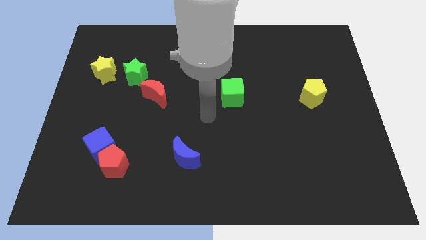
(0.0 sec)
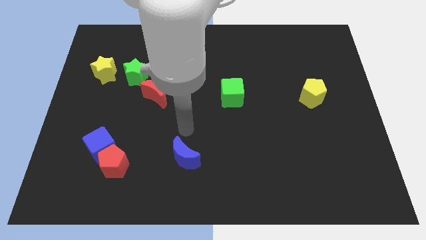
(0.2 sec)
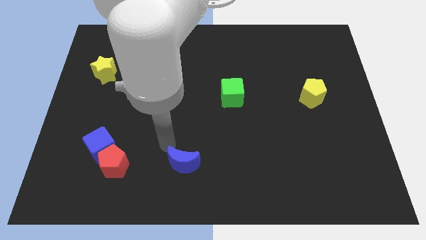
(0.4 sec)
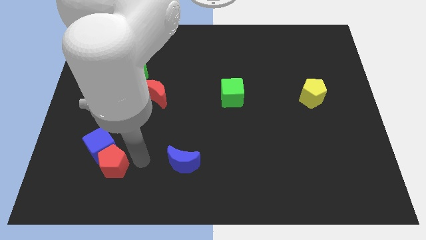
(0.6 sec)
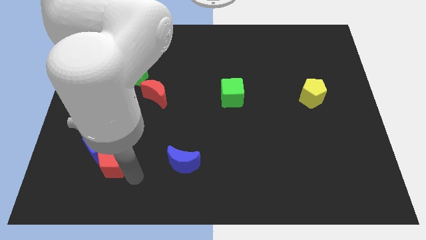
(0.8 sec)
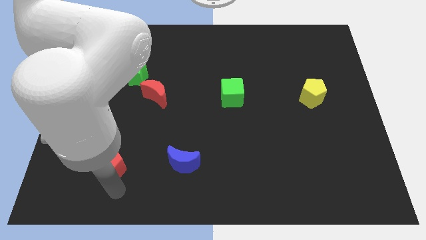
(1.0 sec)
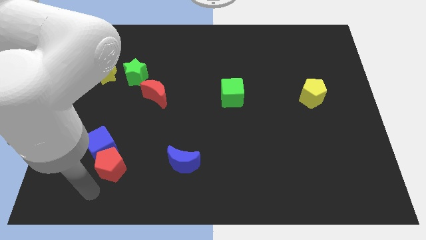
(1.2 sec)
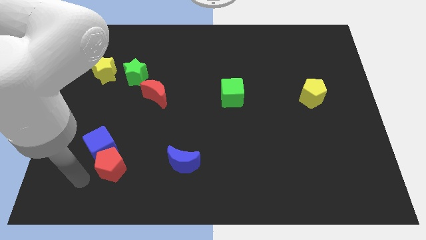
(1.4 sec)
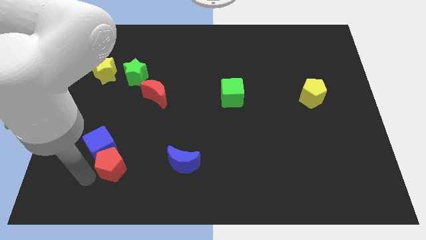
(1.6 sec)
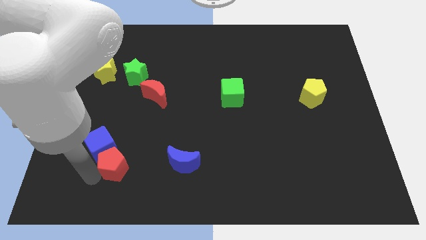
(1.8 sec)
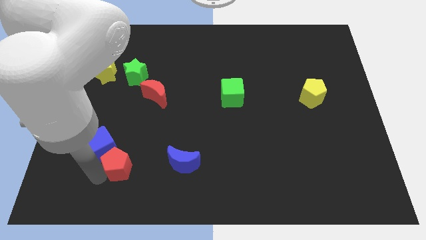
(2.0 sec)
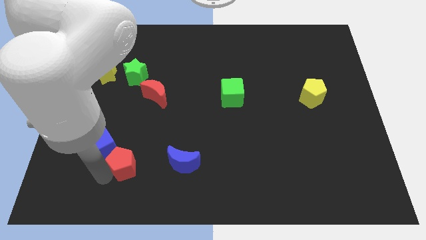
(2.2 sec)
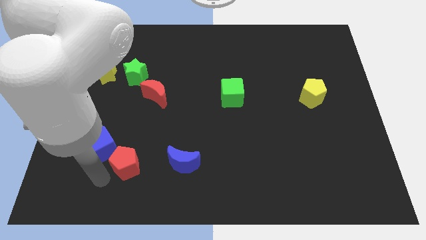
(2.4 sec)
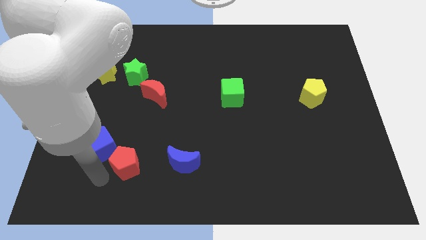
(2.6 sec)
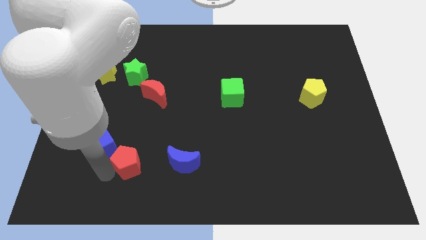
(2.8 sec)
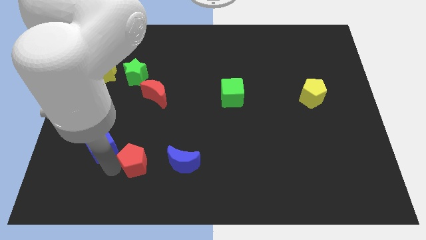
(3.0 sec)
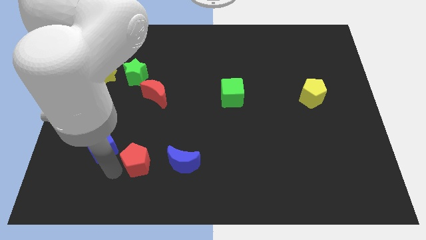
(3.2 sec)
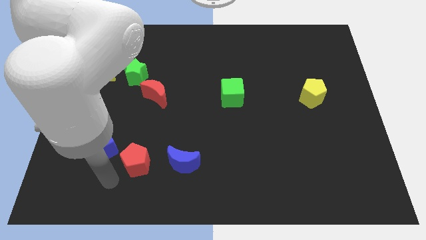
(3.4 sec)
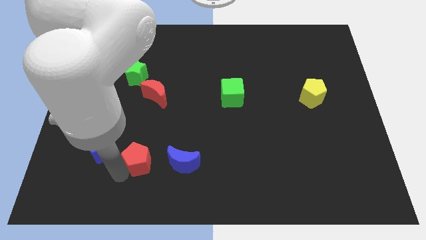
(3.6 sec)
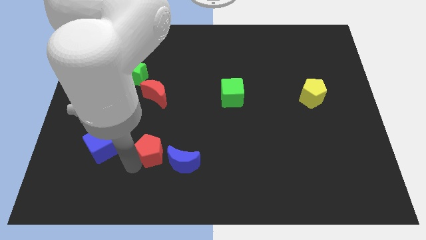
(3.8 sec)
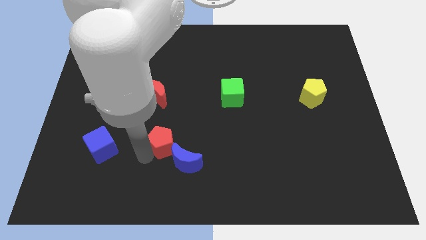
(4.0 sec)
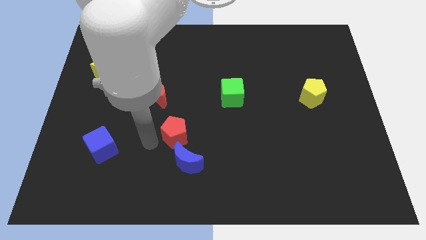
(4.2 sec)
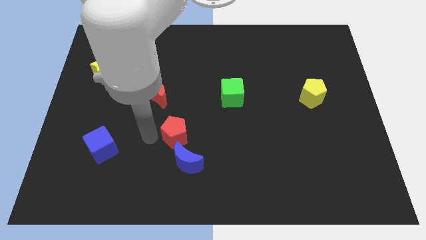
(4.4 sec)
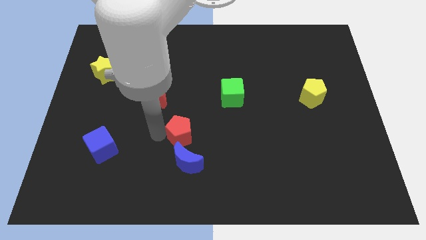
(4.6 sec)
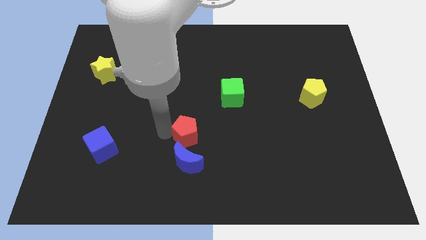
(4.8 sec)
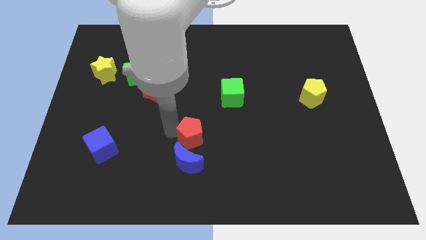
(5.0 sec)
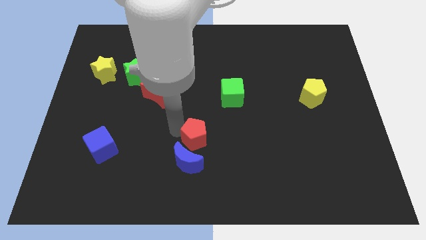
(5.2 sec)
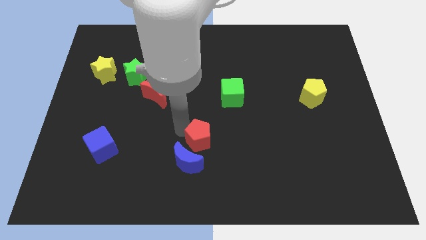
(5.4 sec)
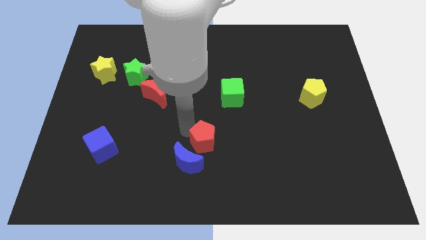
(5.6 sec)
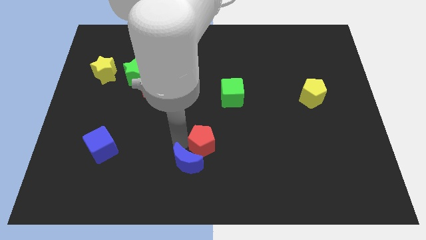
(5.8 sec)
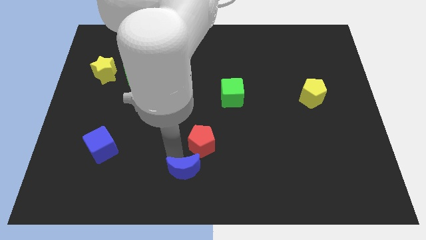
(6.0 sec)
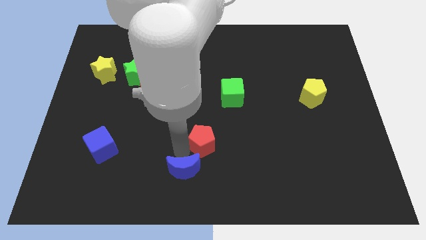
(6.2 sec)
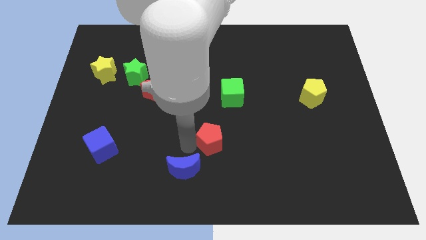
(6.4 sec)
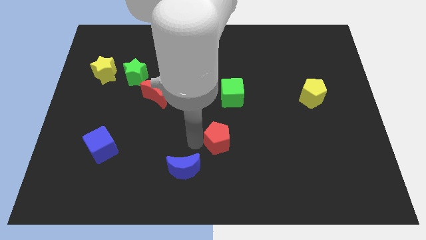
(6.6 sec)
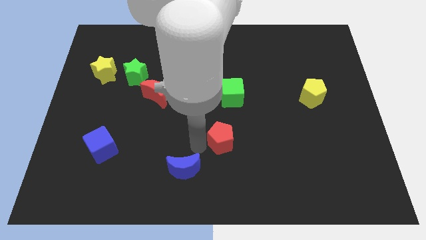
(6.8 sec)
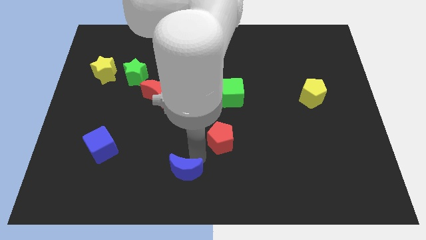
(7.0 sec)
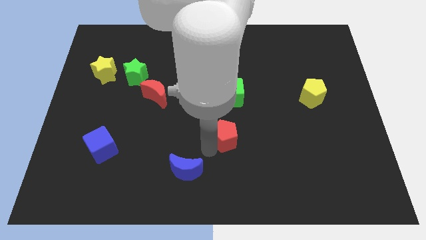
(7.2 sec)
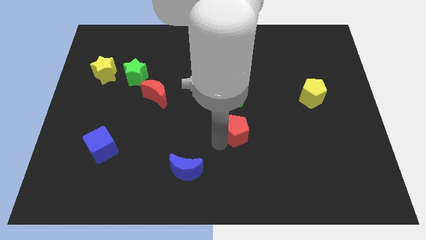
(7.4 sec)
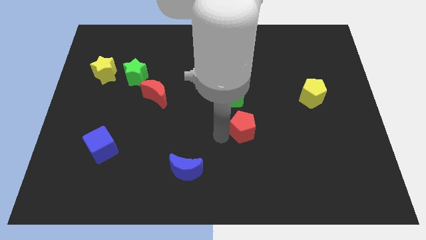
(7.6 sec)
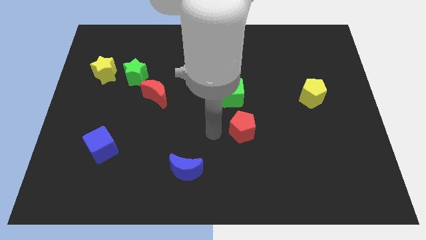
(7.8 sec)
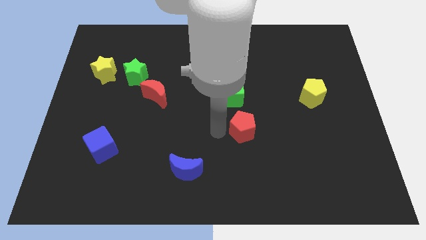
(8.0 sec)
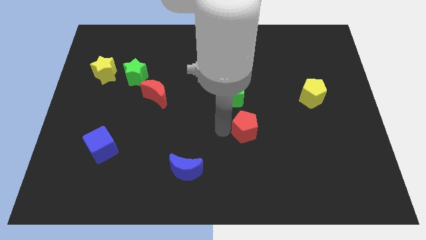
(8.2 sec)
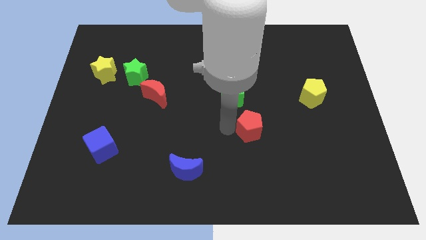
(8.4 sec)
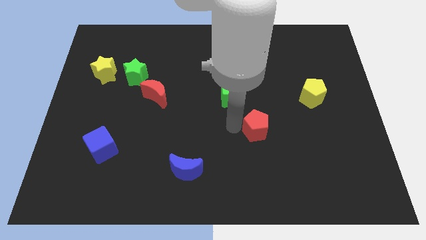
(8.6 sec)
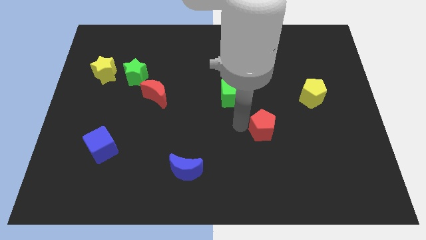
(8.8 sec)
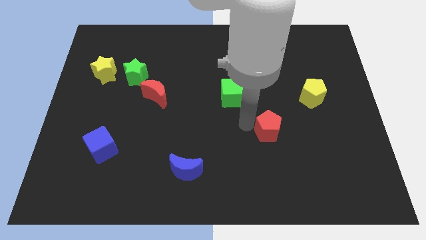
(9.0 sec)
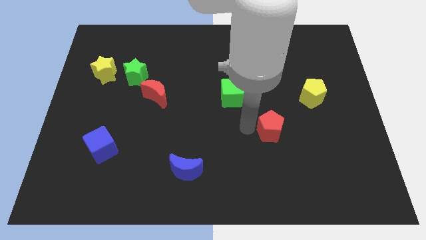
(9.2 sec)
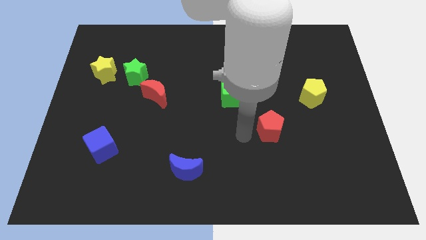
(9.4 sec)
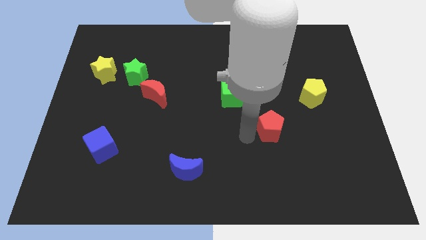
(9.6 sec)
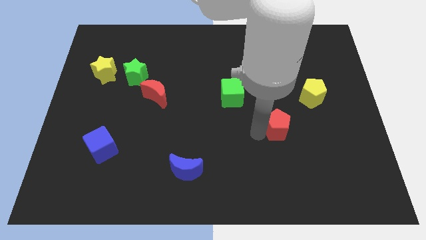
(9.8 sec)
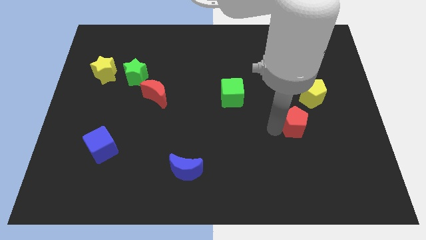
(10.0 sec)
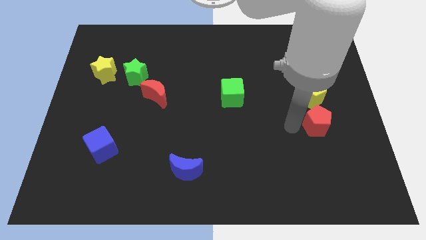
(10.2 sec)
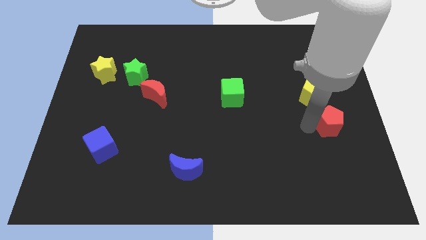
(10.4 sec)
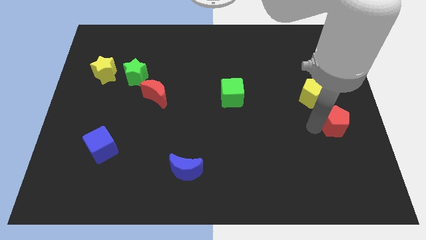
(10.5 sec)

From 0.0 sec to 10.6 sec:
slide the red pentagon to the right side of the board

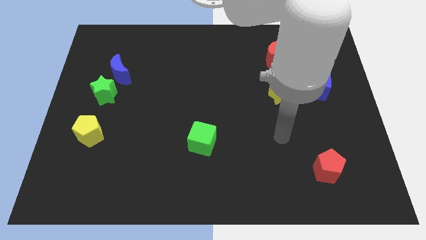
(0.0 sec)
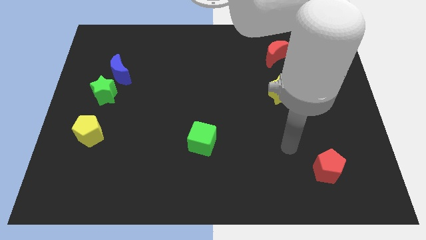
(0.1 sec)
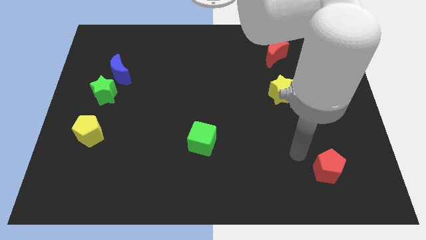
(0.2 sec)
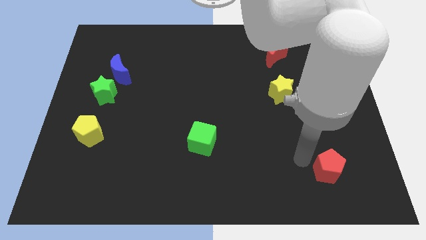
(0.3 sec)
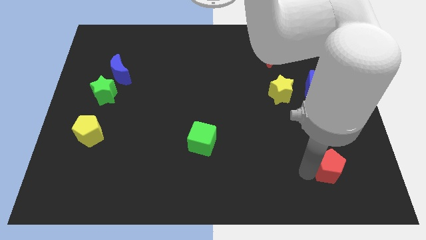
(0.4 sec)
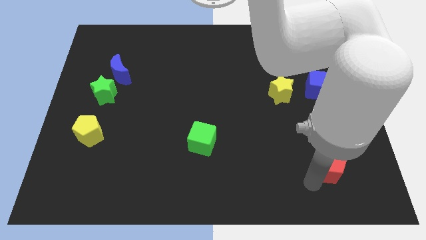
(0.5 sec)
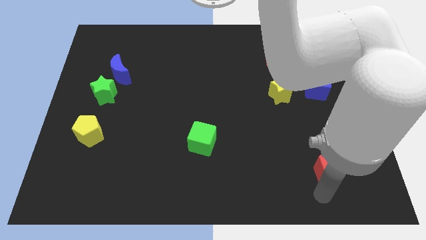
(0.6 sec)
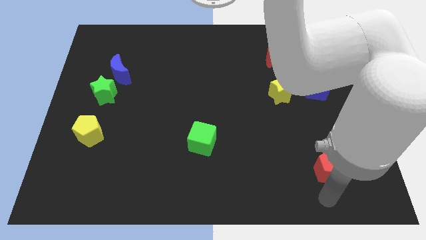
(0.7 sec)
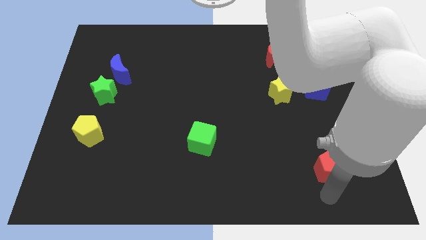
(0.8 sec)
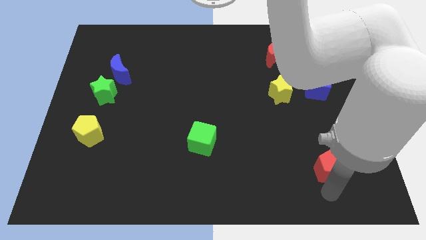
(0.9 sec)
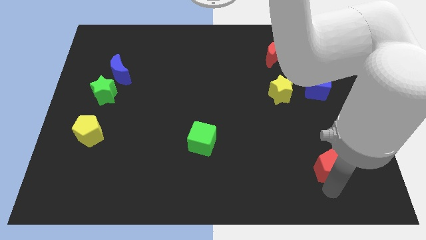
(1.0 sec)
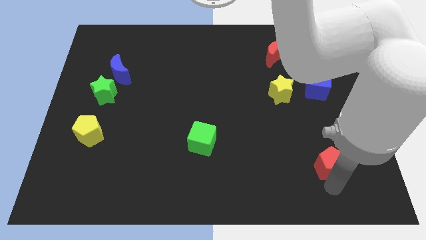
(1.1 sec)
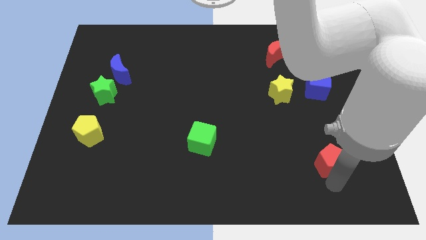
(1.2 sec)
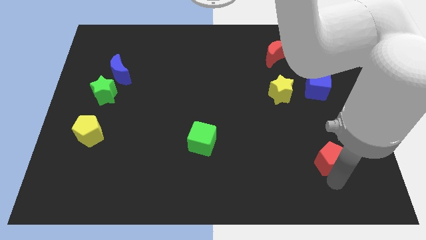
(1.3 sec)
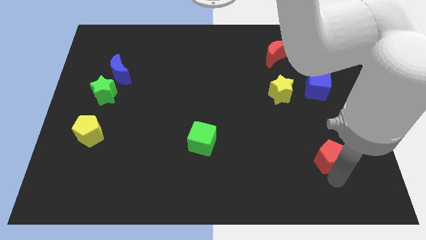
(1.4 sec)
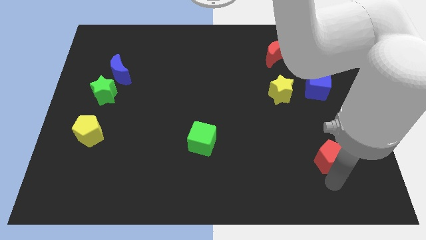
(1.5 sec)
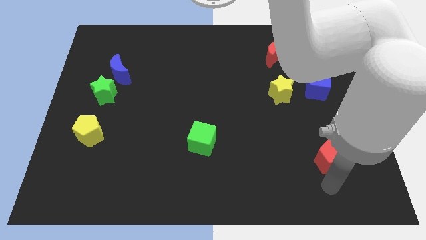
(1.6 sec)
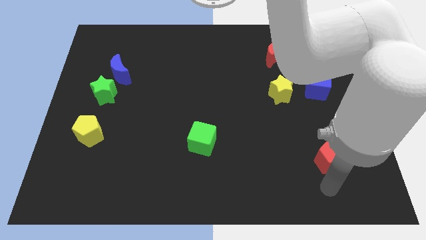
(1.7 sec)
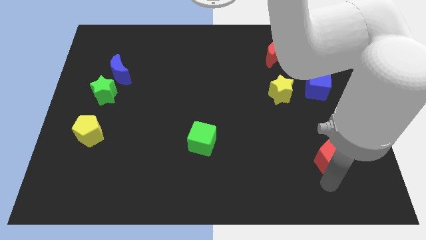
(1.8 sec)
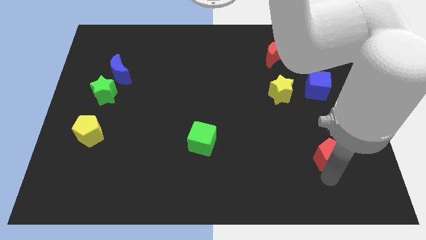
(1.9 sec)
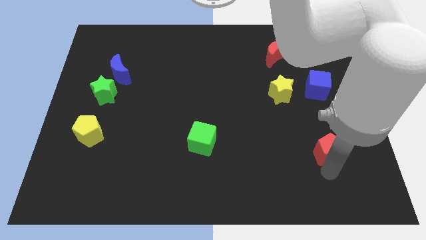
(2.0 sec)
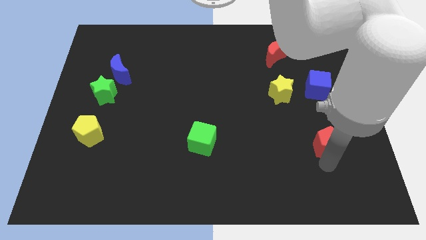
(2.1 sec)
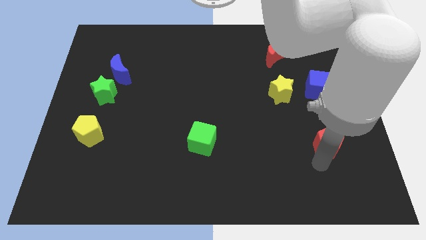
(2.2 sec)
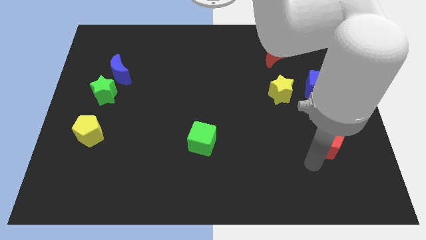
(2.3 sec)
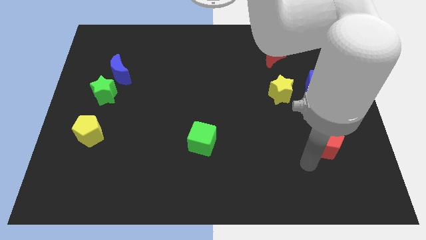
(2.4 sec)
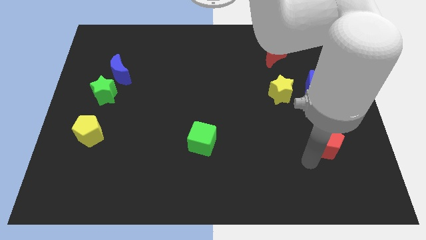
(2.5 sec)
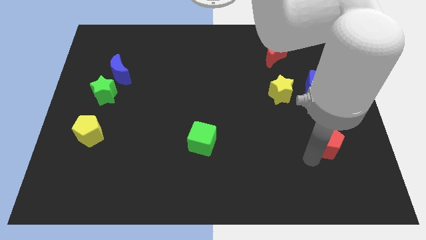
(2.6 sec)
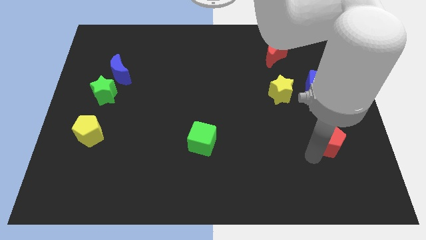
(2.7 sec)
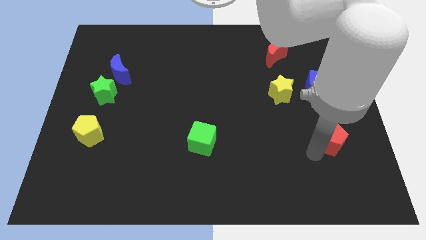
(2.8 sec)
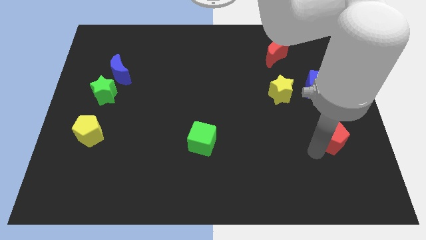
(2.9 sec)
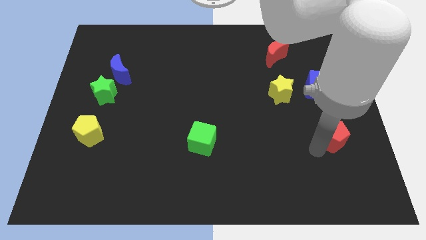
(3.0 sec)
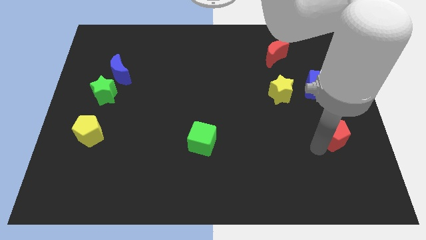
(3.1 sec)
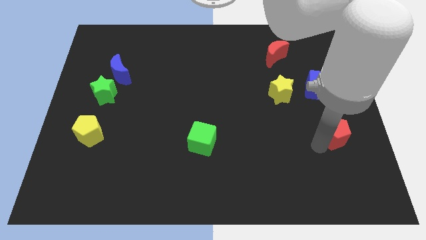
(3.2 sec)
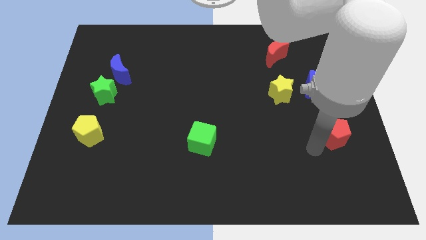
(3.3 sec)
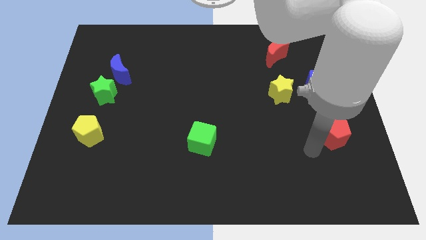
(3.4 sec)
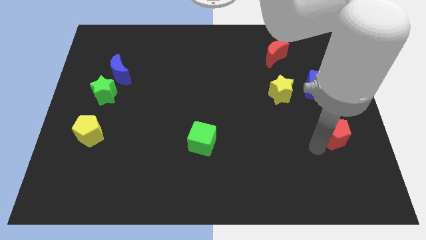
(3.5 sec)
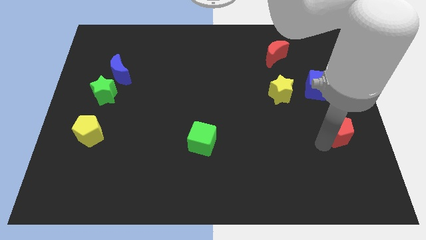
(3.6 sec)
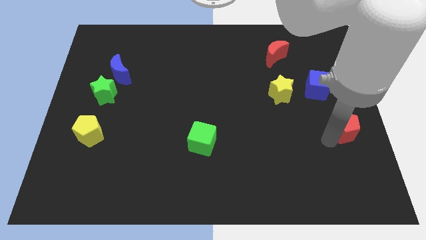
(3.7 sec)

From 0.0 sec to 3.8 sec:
slide the red pentagon to the center right
